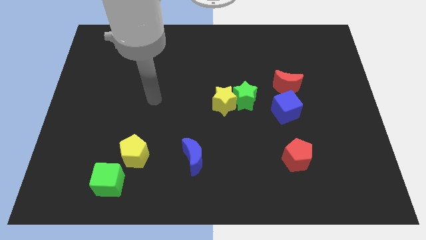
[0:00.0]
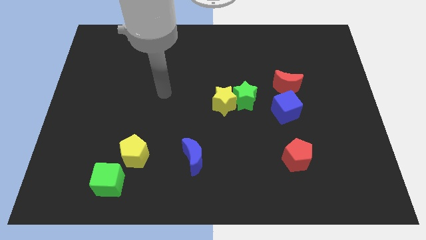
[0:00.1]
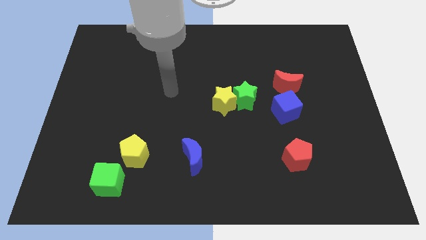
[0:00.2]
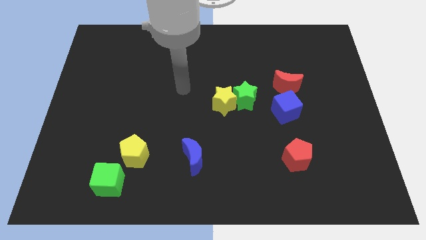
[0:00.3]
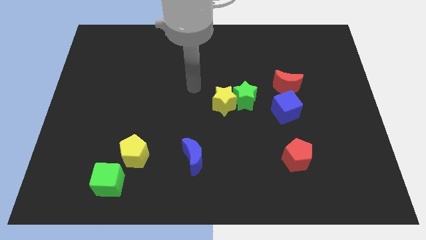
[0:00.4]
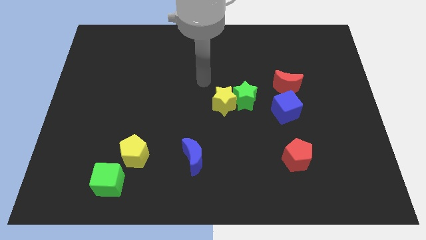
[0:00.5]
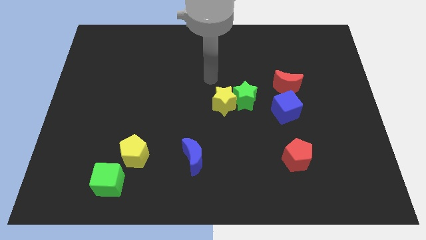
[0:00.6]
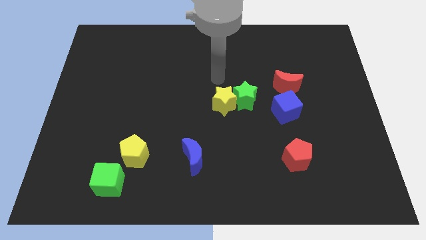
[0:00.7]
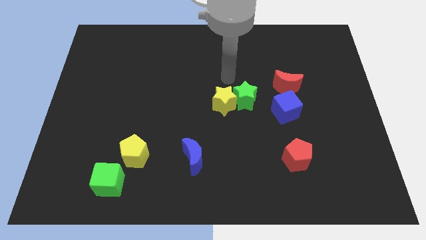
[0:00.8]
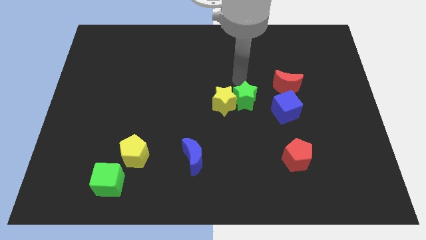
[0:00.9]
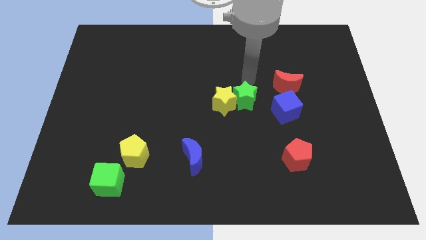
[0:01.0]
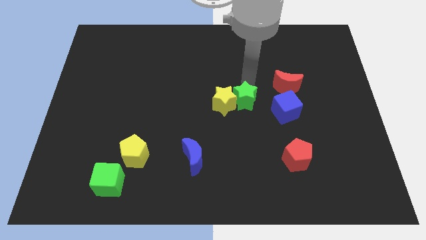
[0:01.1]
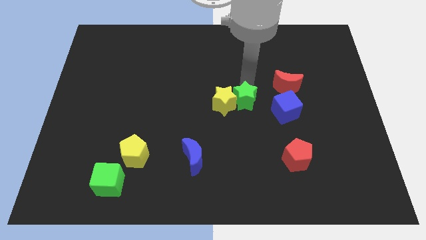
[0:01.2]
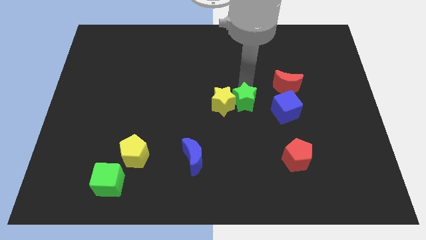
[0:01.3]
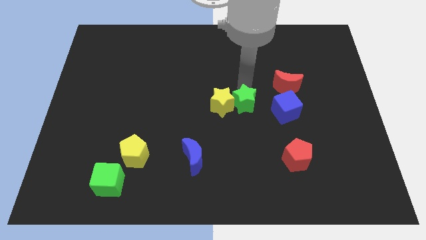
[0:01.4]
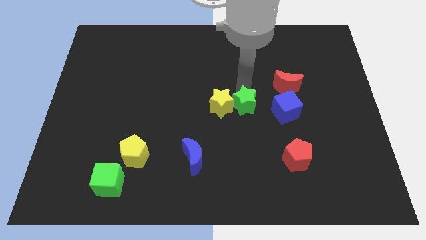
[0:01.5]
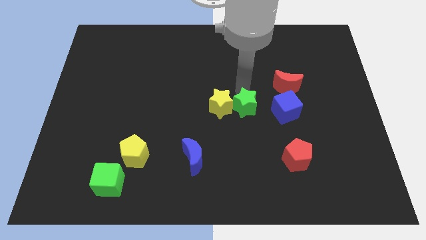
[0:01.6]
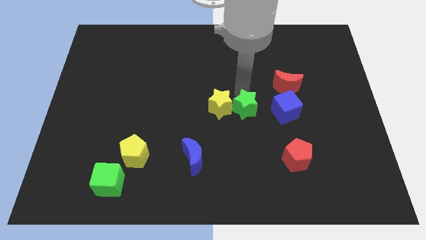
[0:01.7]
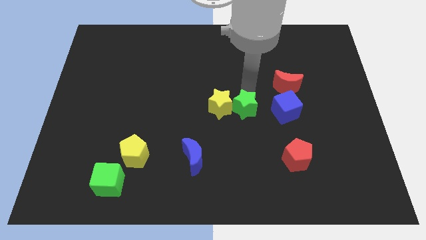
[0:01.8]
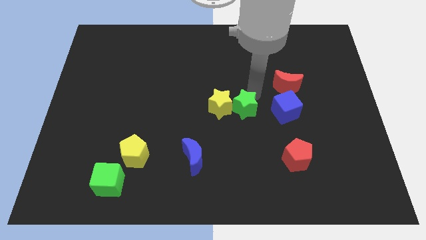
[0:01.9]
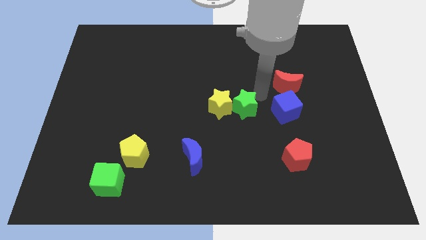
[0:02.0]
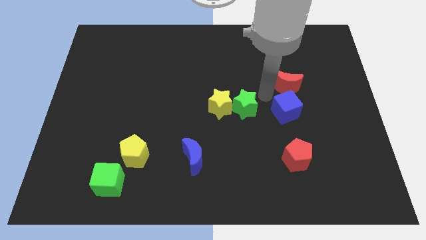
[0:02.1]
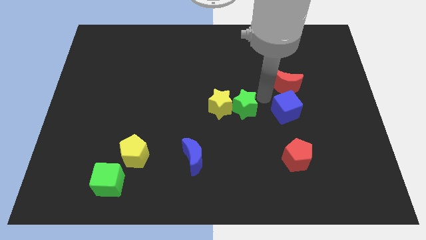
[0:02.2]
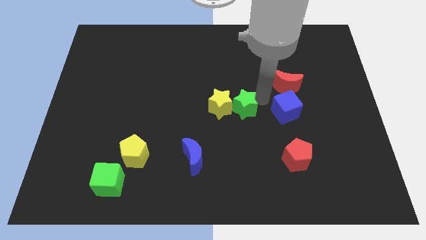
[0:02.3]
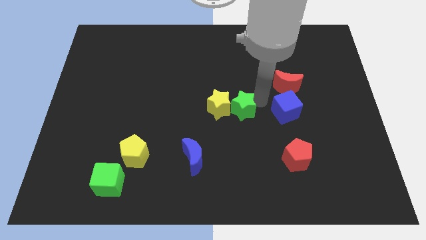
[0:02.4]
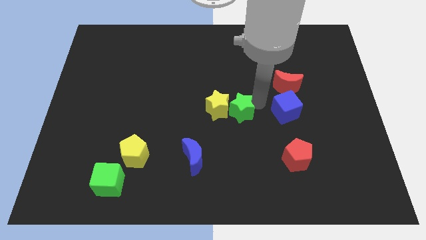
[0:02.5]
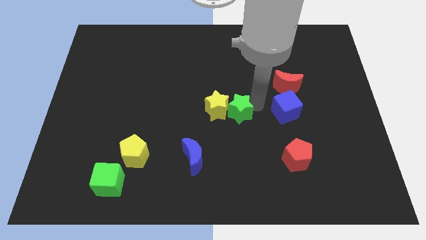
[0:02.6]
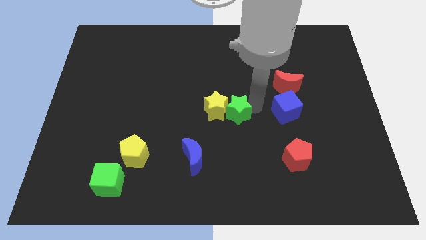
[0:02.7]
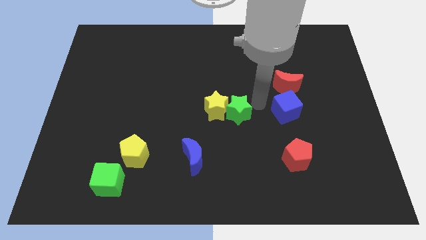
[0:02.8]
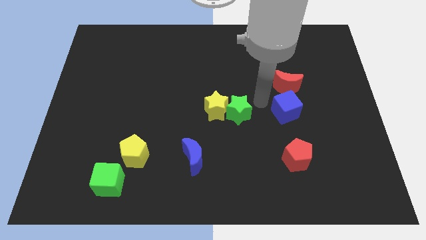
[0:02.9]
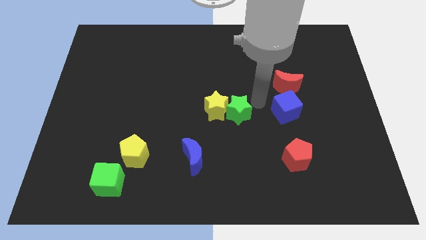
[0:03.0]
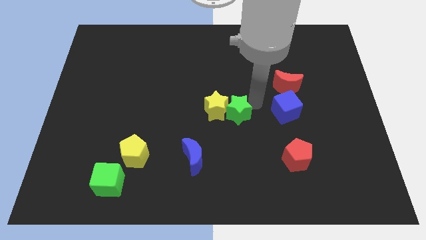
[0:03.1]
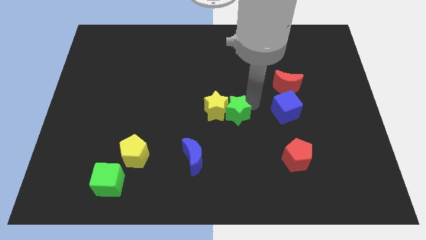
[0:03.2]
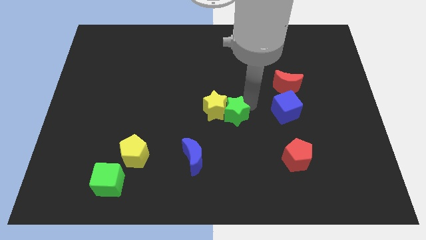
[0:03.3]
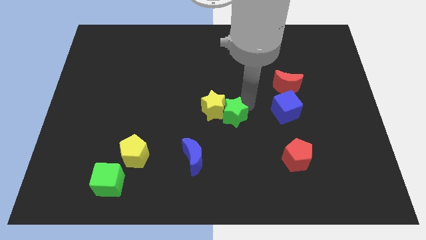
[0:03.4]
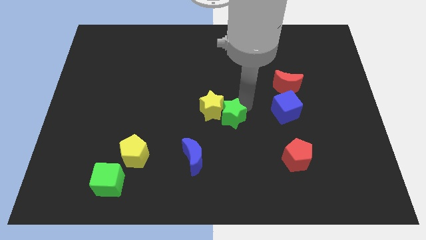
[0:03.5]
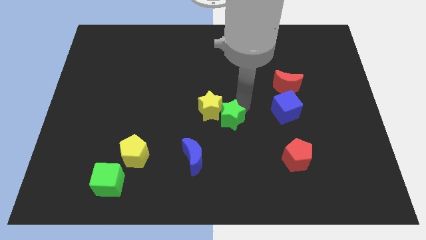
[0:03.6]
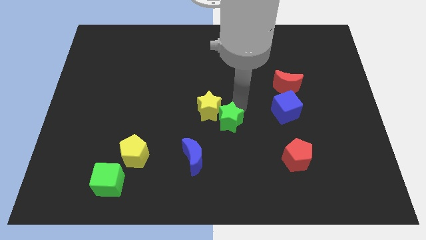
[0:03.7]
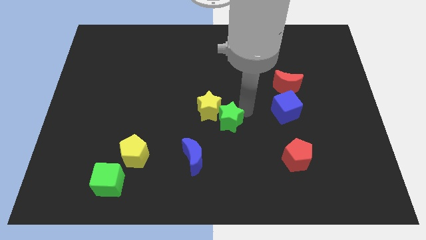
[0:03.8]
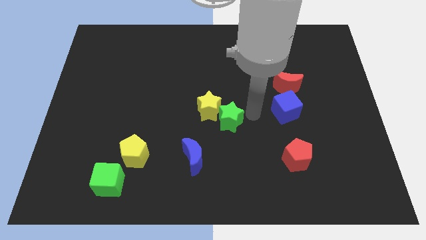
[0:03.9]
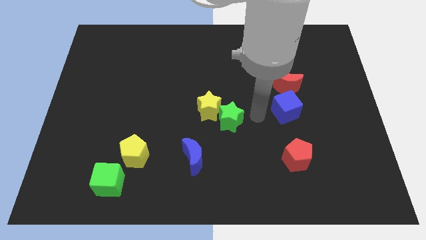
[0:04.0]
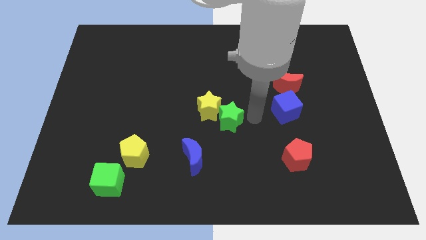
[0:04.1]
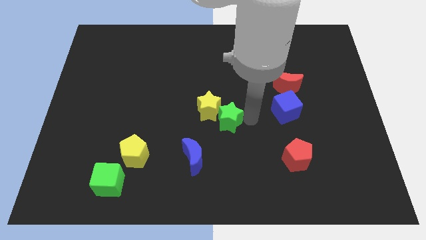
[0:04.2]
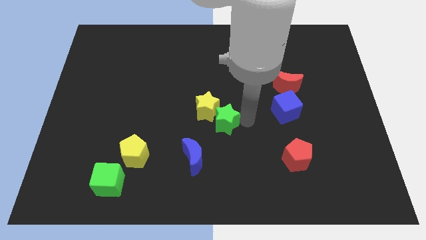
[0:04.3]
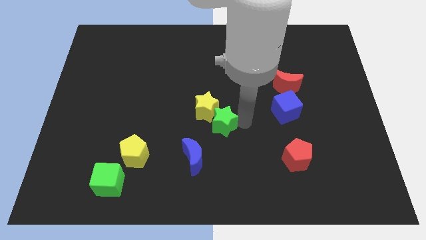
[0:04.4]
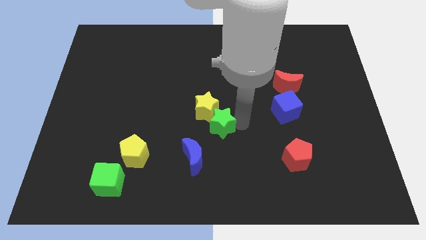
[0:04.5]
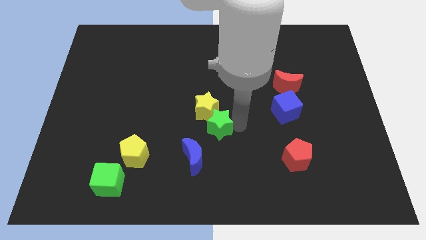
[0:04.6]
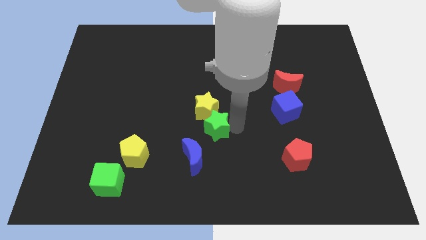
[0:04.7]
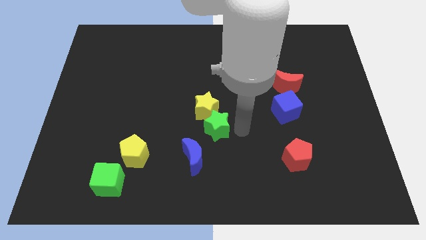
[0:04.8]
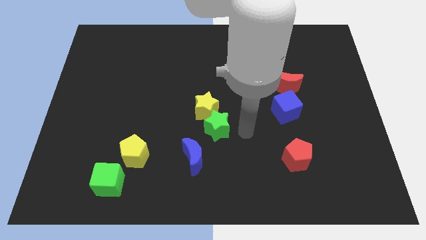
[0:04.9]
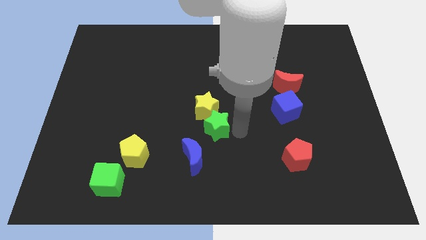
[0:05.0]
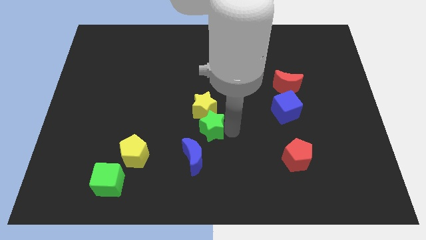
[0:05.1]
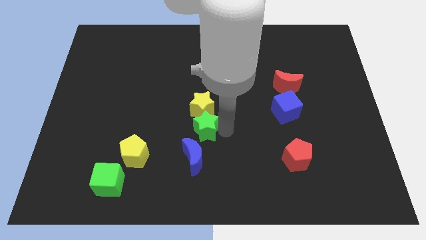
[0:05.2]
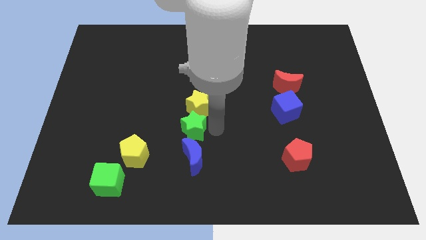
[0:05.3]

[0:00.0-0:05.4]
put the green star to the top left side of the blue moon
